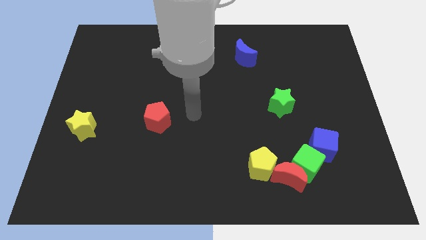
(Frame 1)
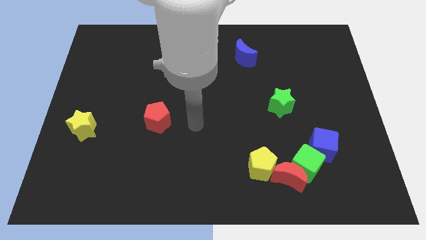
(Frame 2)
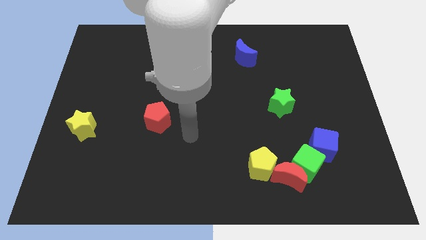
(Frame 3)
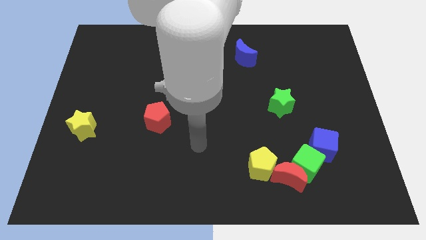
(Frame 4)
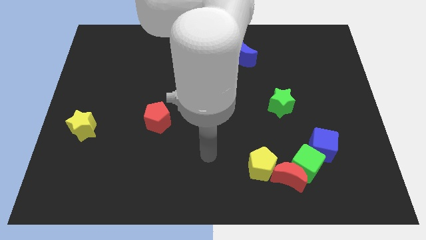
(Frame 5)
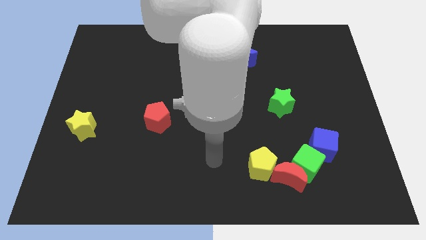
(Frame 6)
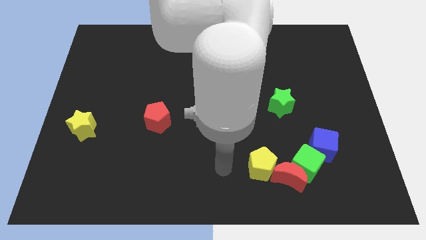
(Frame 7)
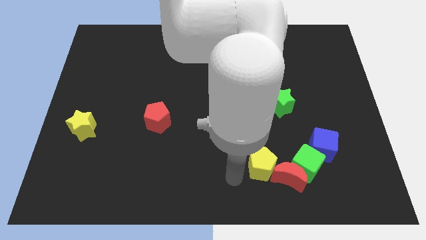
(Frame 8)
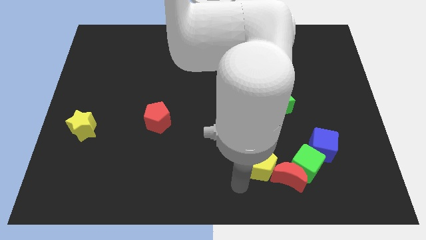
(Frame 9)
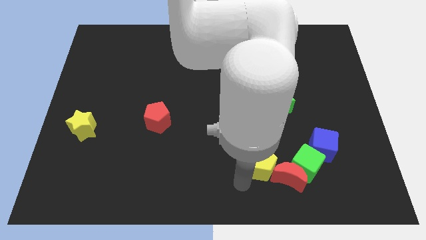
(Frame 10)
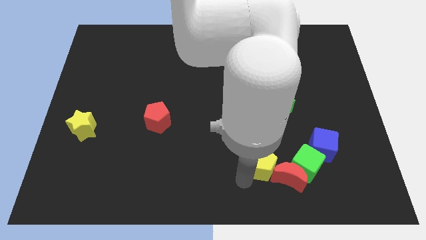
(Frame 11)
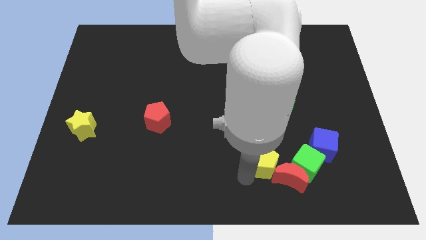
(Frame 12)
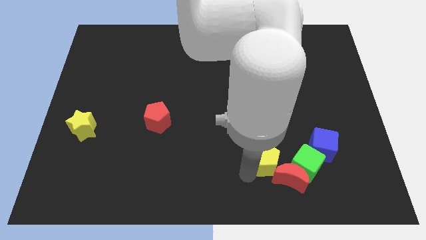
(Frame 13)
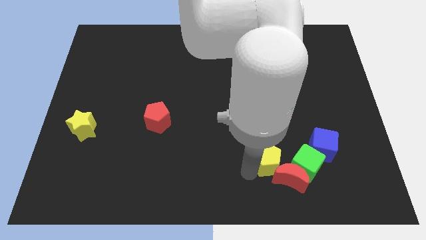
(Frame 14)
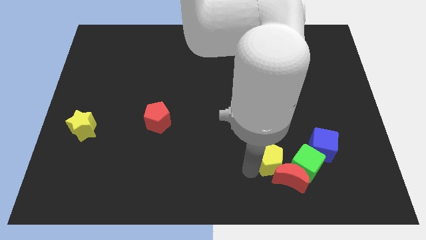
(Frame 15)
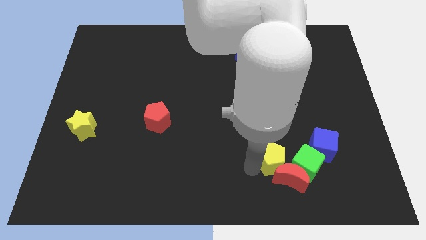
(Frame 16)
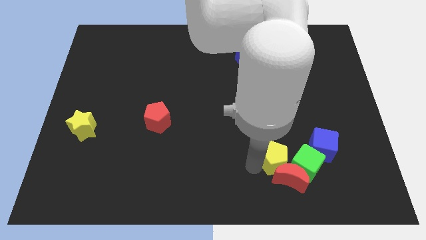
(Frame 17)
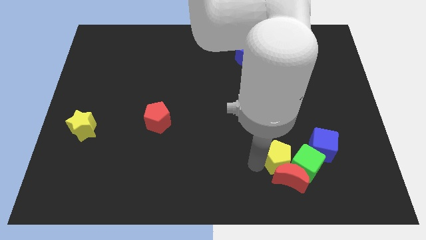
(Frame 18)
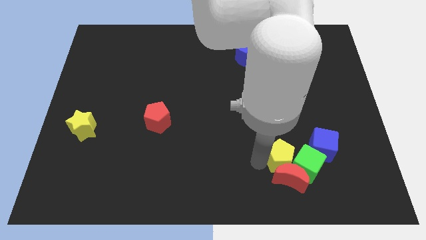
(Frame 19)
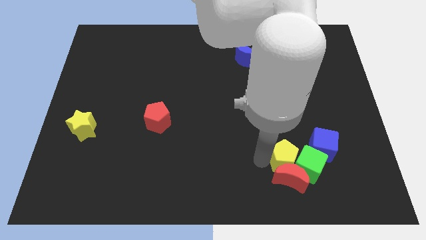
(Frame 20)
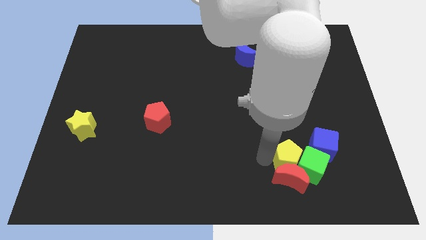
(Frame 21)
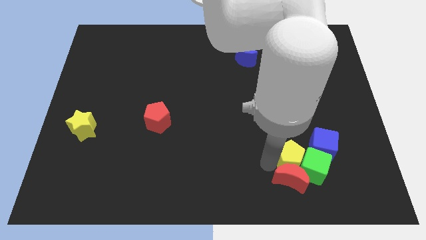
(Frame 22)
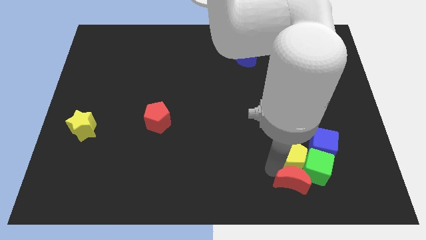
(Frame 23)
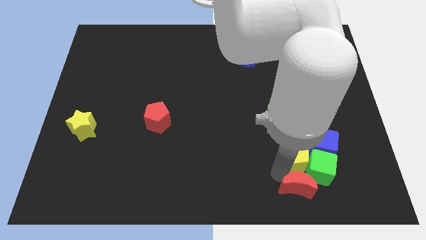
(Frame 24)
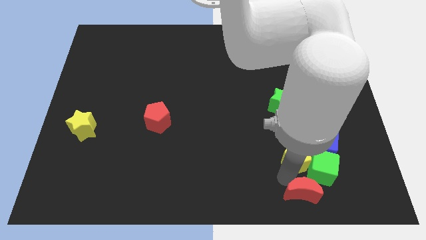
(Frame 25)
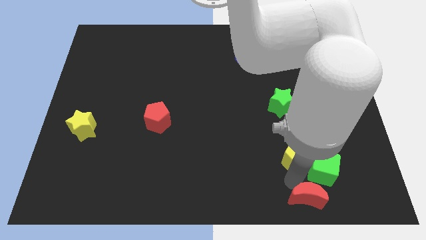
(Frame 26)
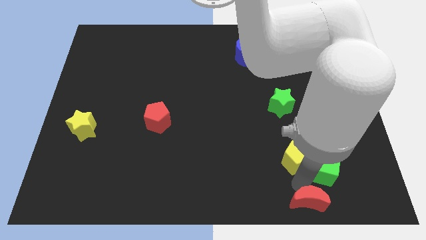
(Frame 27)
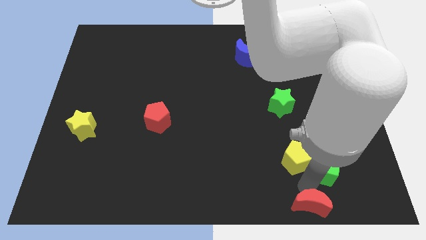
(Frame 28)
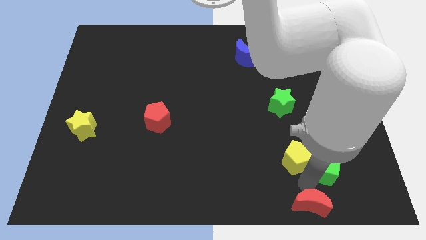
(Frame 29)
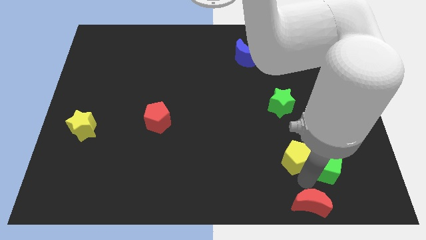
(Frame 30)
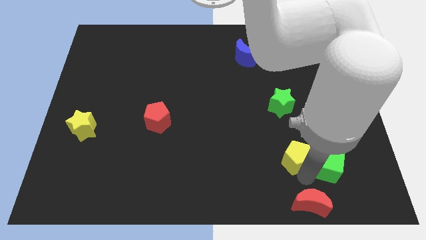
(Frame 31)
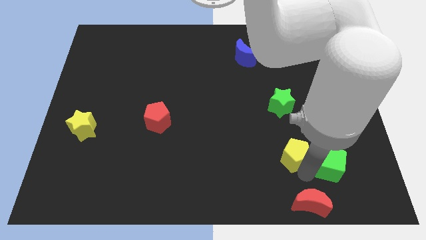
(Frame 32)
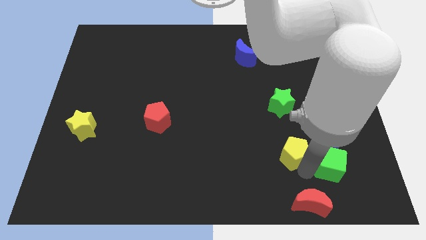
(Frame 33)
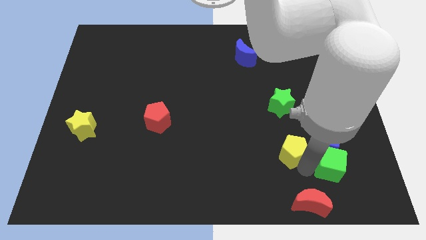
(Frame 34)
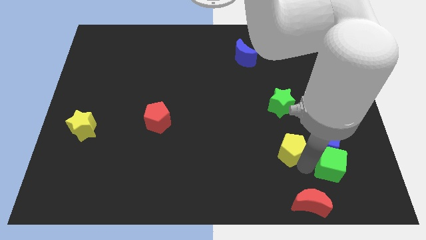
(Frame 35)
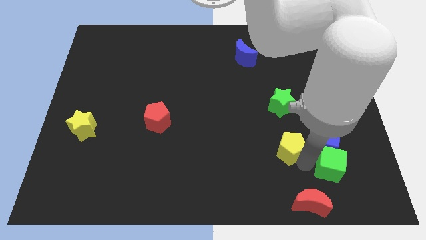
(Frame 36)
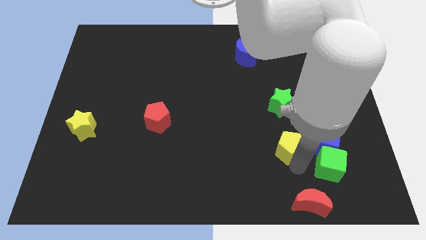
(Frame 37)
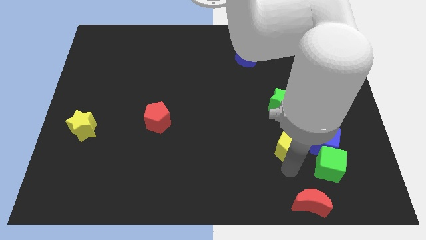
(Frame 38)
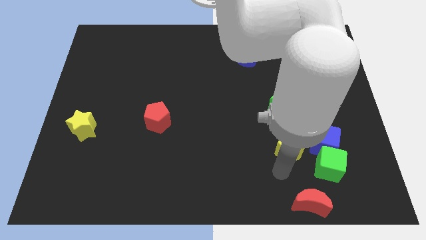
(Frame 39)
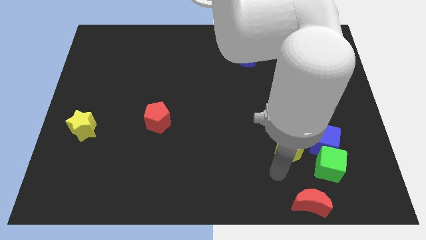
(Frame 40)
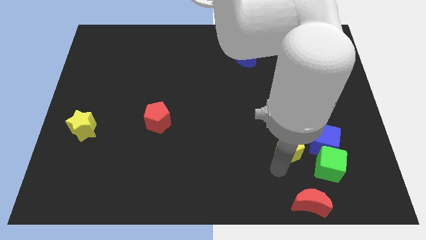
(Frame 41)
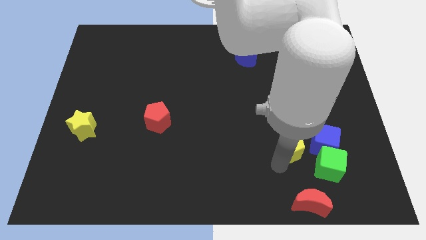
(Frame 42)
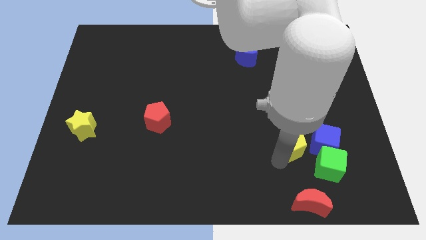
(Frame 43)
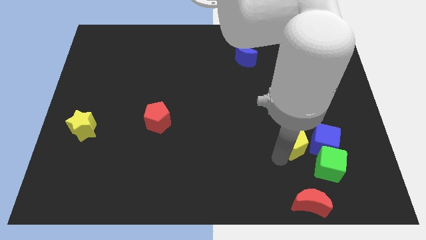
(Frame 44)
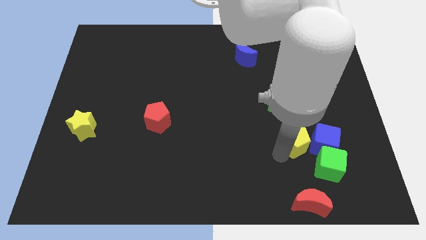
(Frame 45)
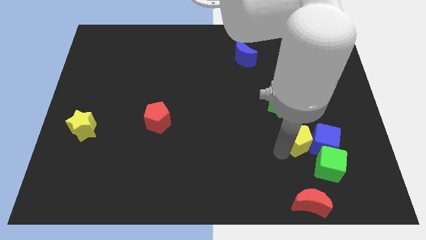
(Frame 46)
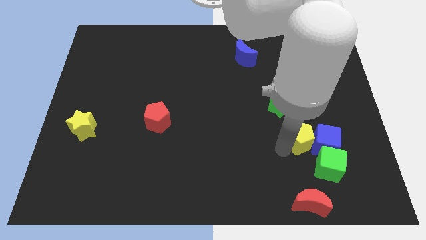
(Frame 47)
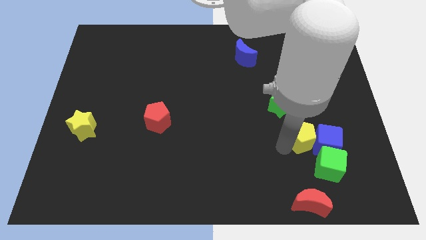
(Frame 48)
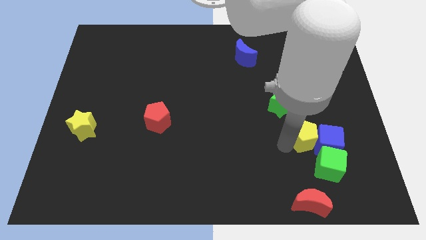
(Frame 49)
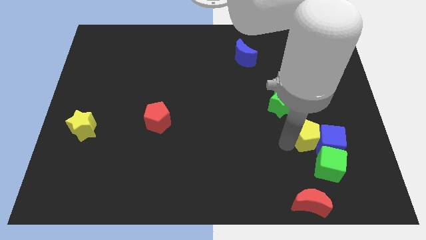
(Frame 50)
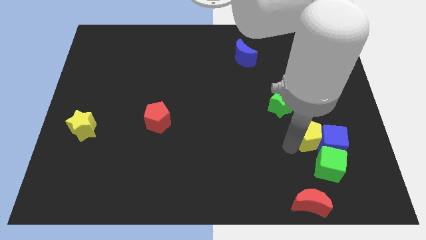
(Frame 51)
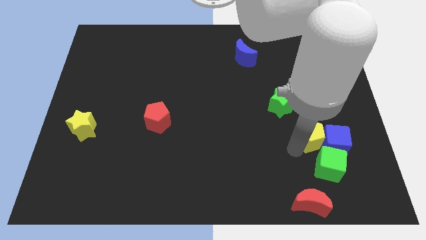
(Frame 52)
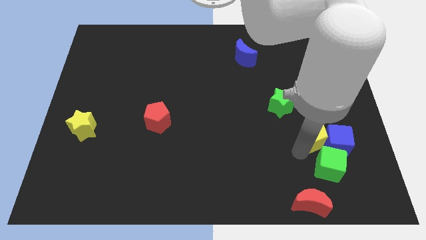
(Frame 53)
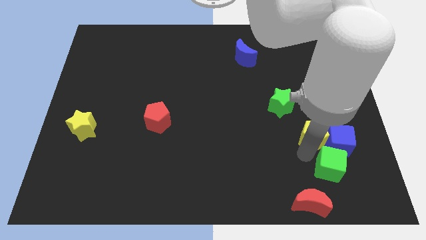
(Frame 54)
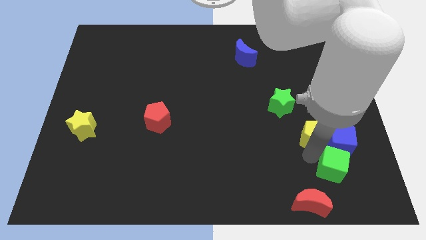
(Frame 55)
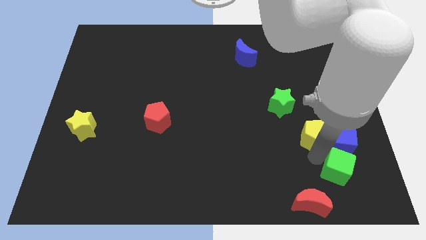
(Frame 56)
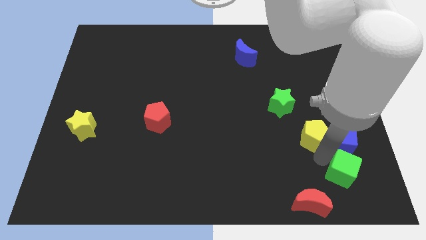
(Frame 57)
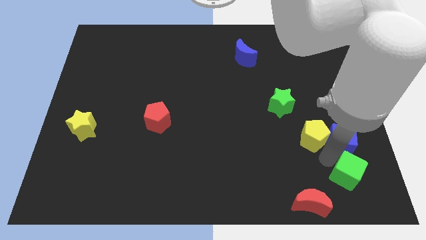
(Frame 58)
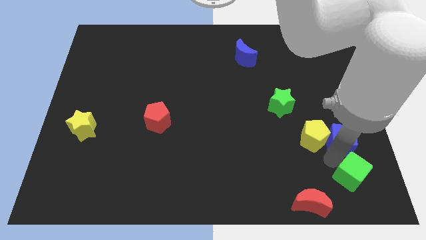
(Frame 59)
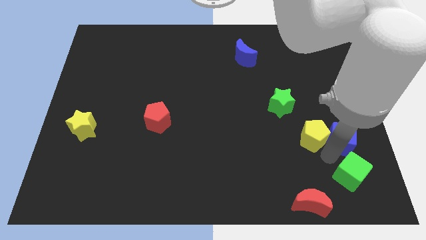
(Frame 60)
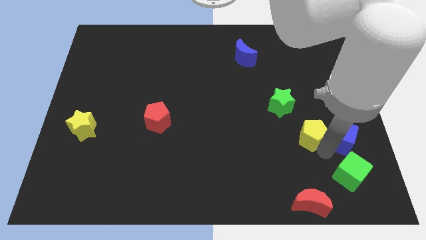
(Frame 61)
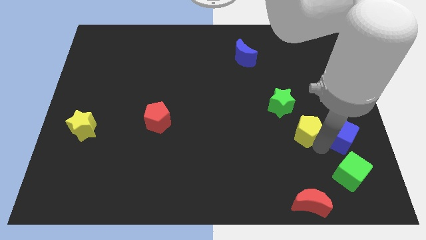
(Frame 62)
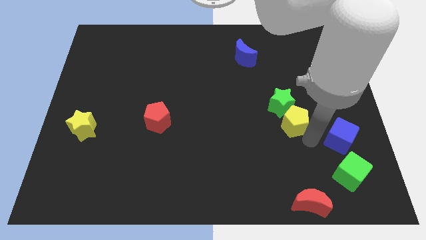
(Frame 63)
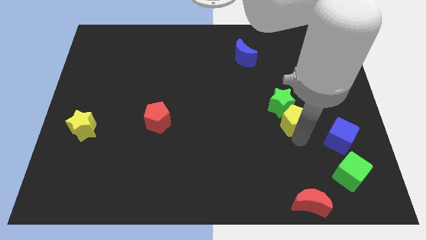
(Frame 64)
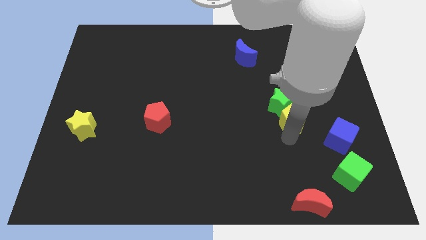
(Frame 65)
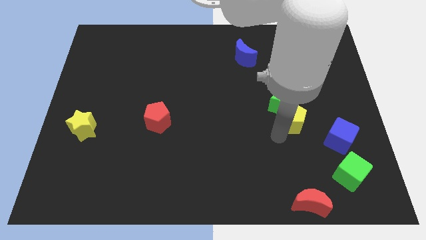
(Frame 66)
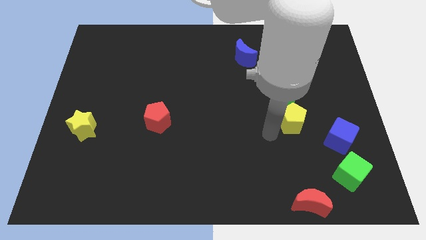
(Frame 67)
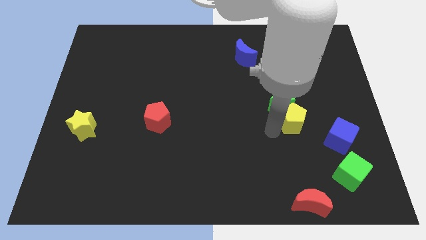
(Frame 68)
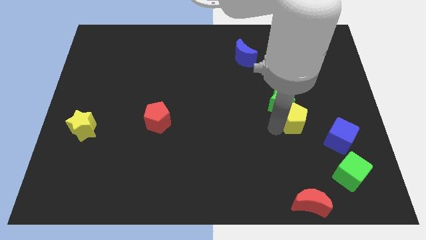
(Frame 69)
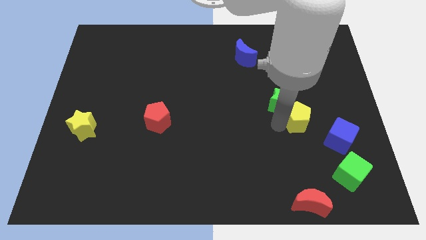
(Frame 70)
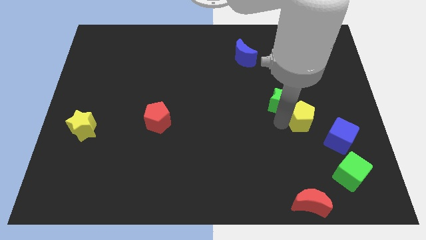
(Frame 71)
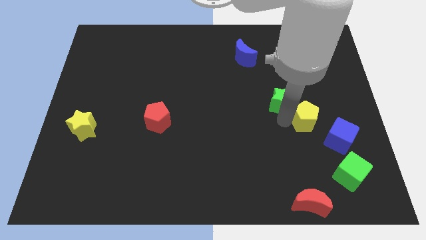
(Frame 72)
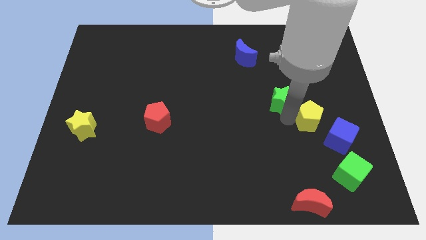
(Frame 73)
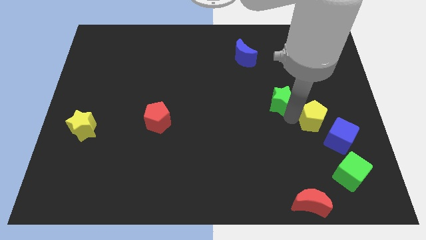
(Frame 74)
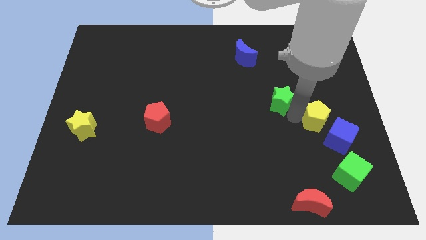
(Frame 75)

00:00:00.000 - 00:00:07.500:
slide the yellow pentagon above the blue cube
